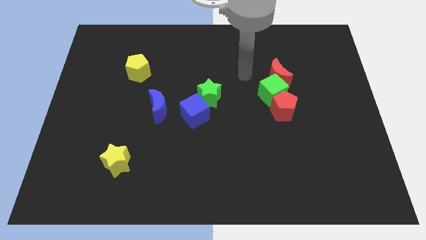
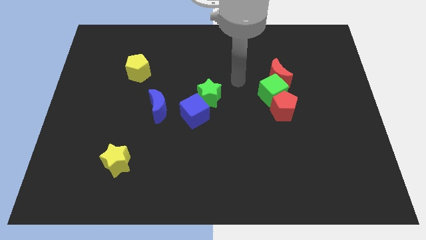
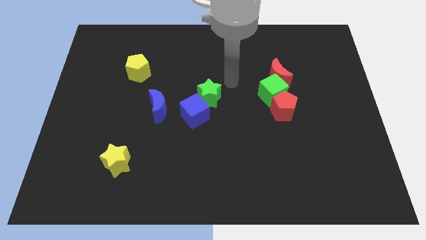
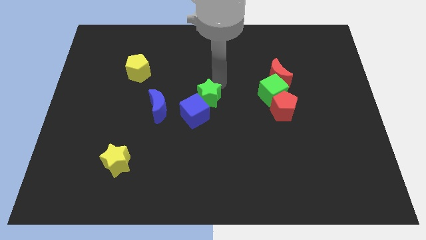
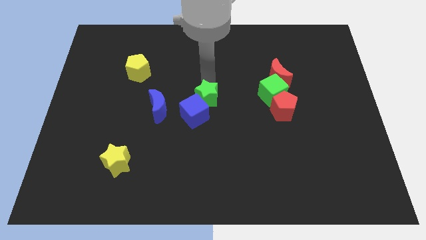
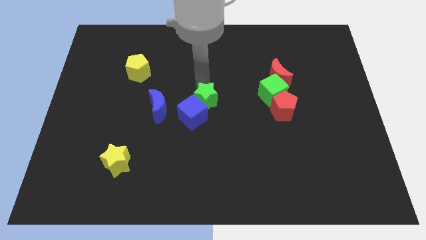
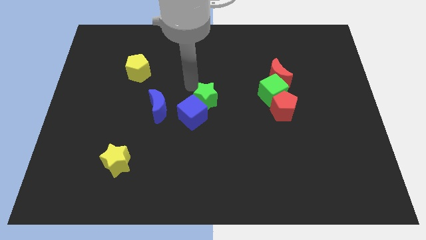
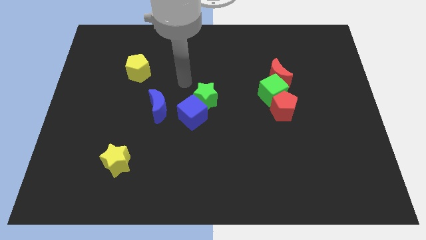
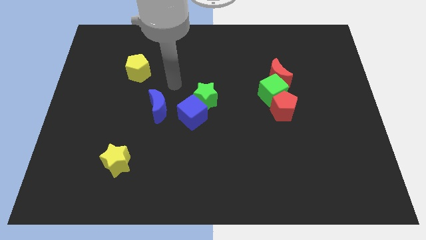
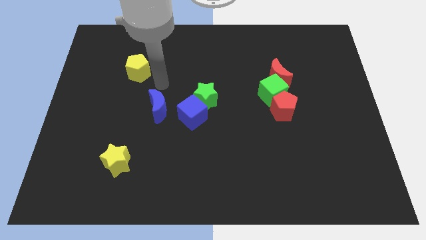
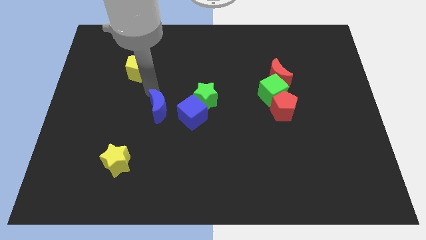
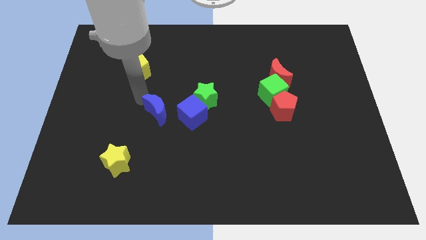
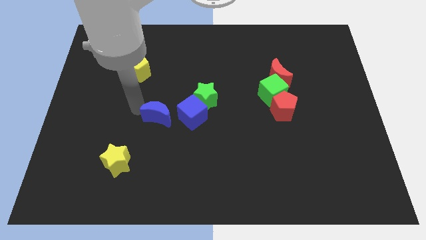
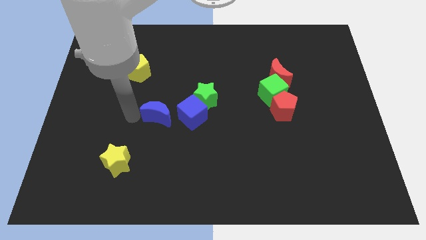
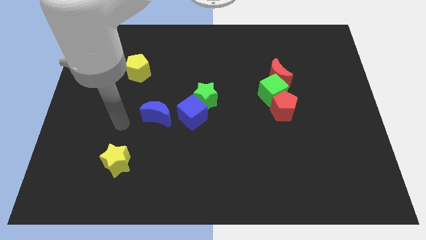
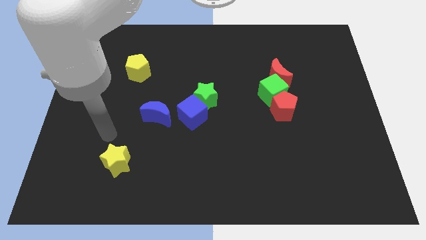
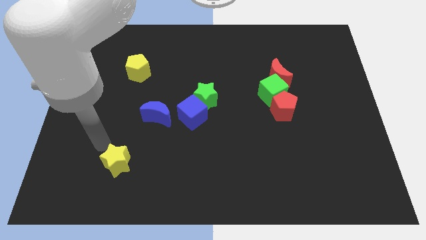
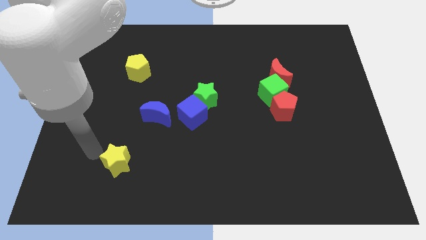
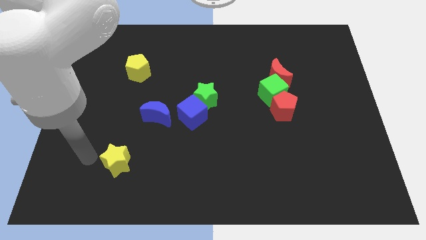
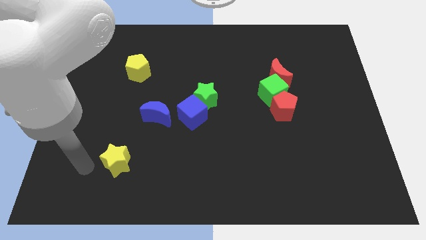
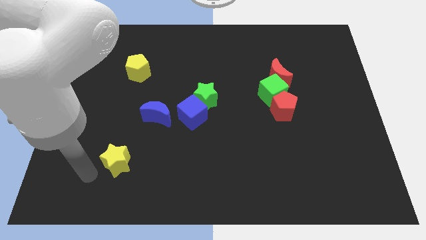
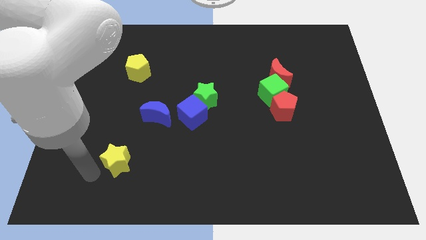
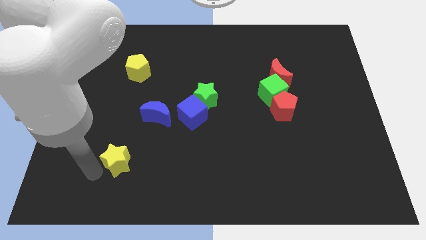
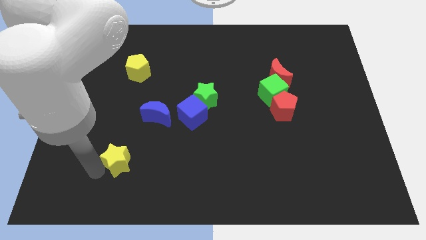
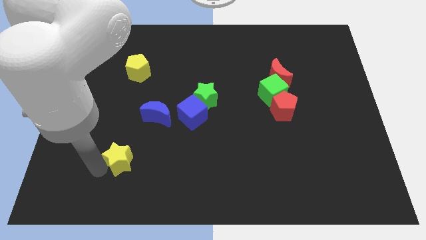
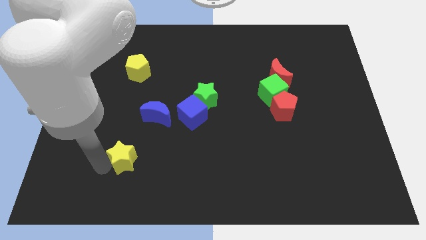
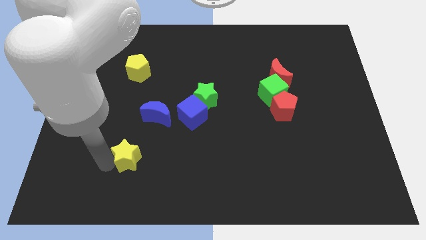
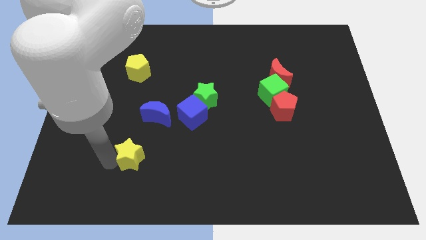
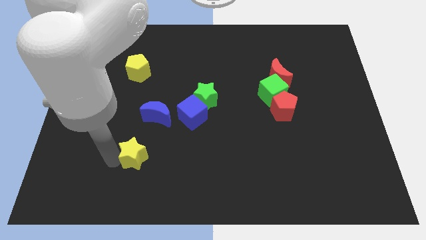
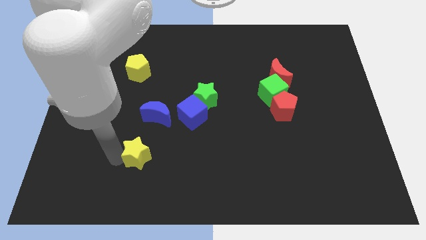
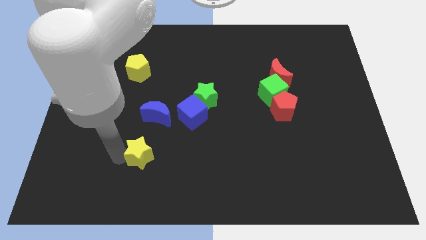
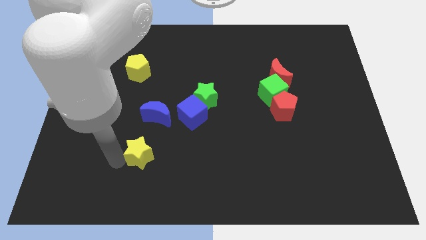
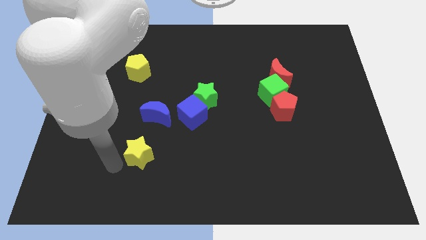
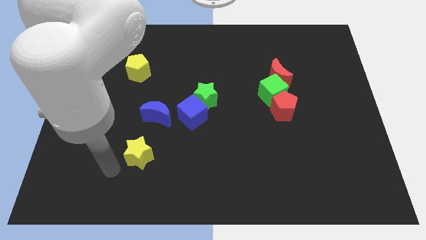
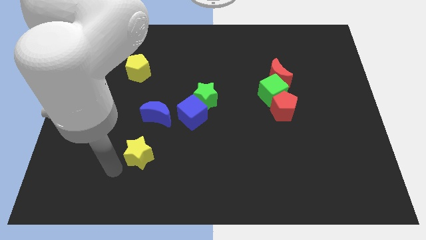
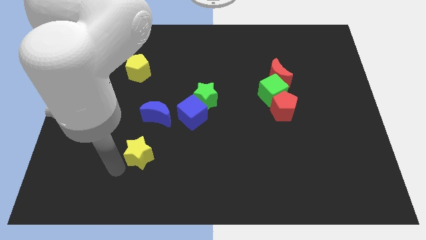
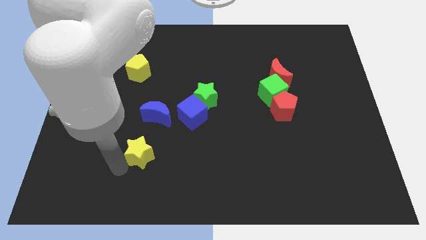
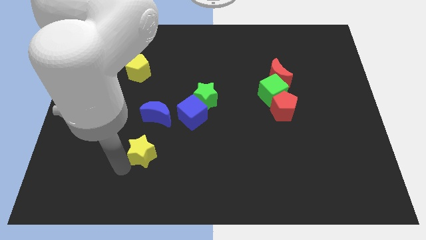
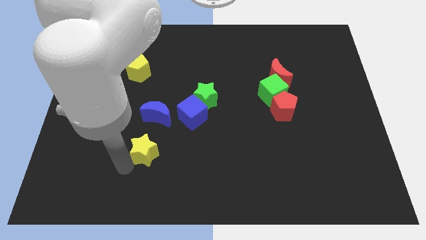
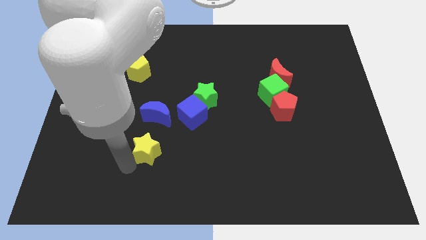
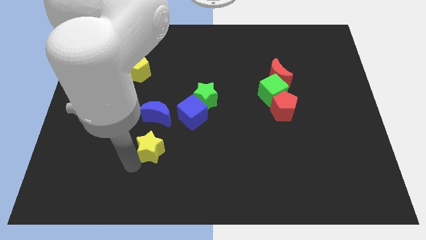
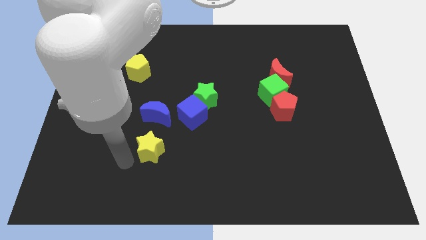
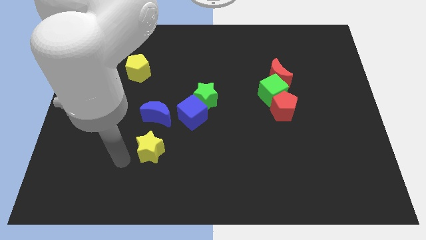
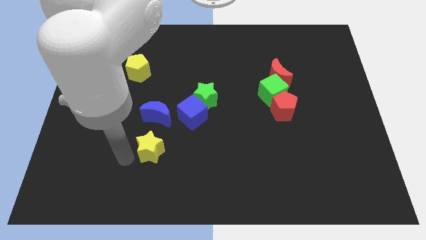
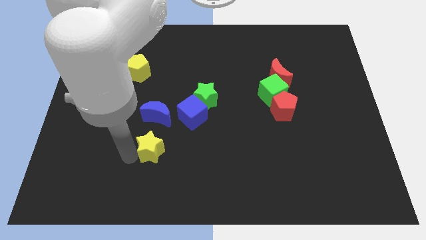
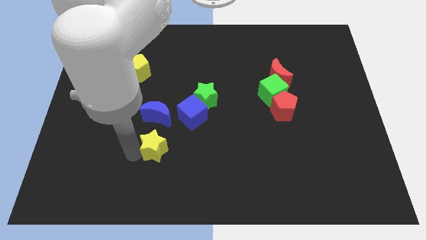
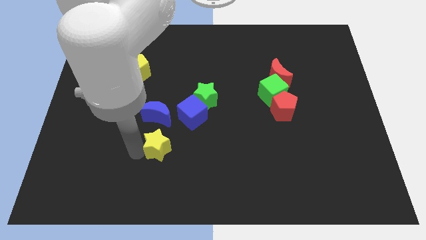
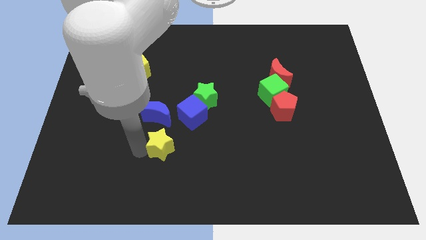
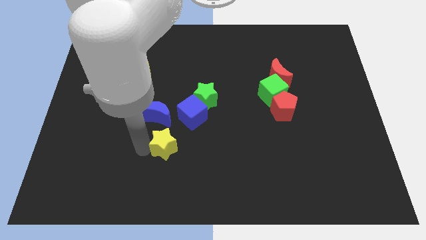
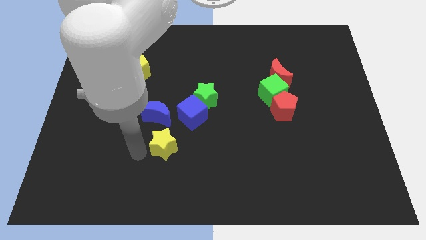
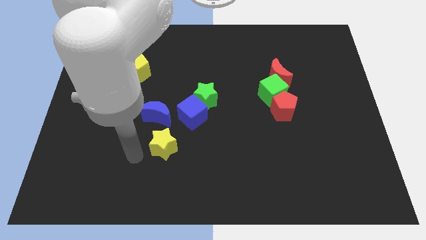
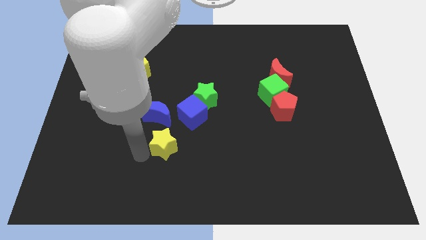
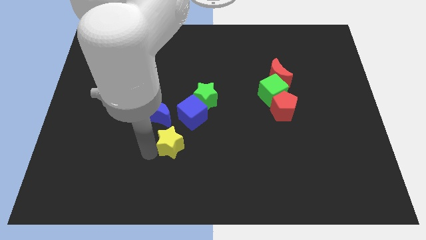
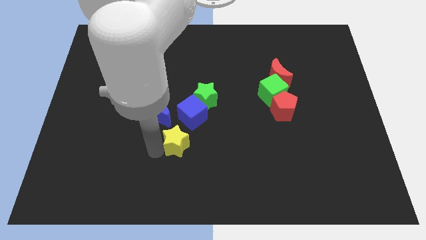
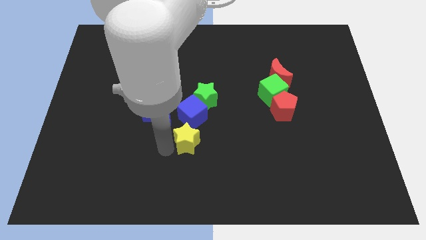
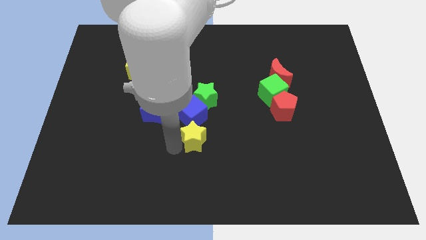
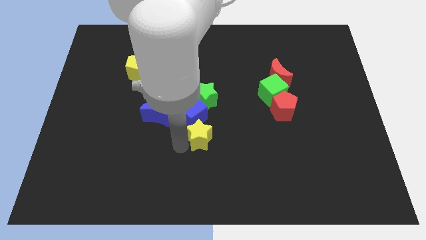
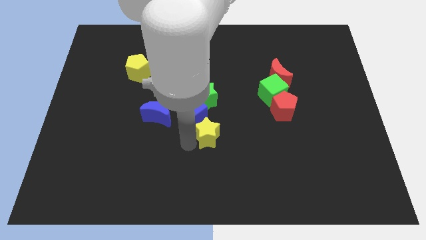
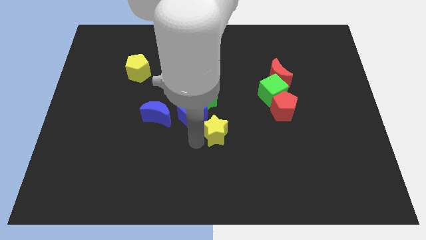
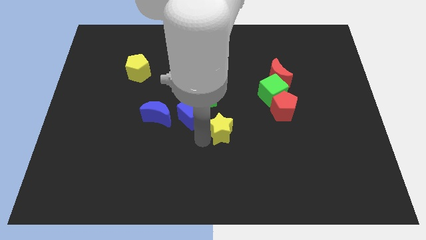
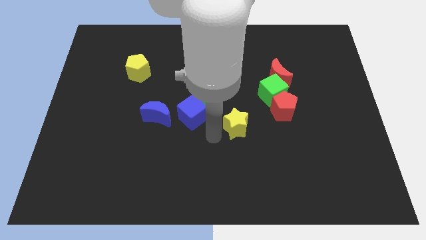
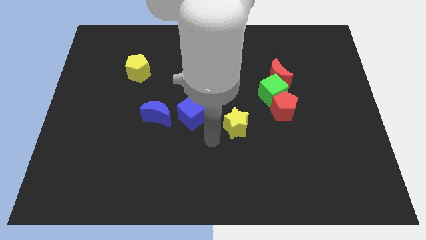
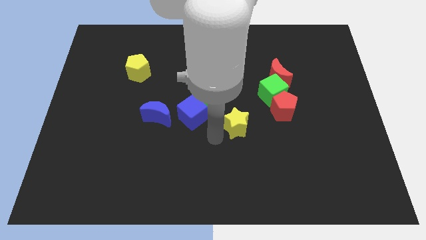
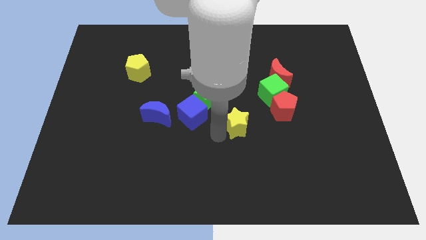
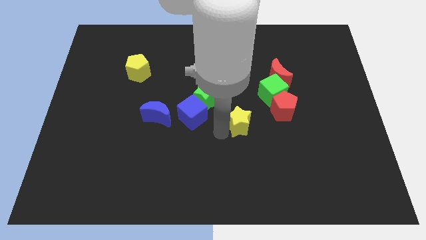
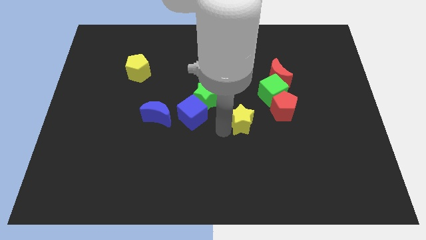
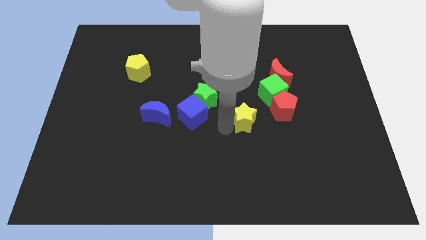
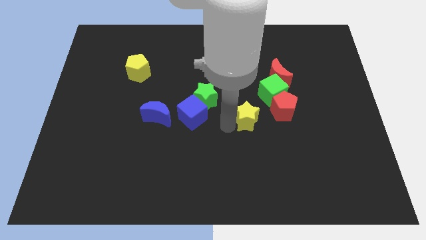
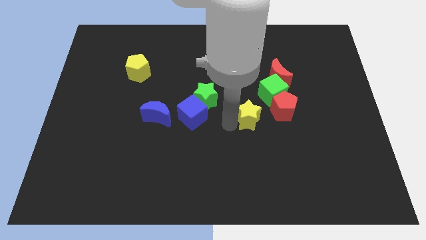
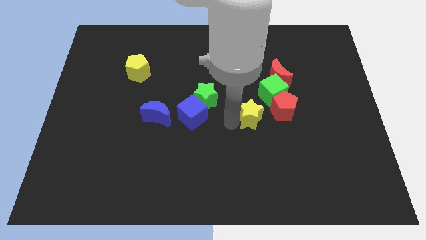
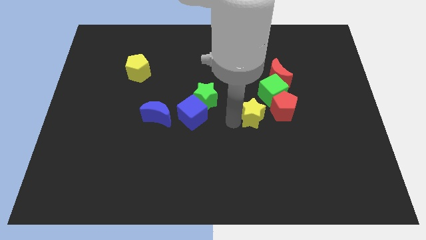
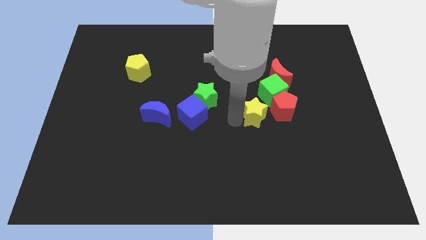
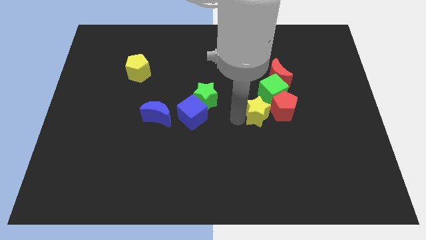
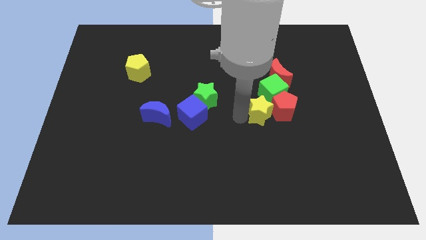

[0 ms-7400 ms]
slide the yellow star close to the red pentagon
